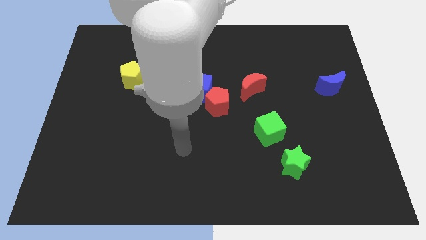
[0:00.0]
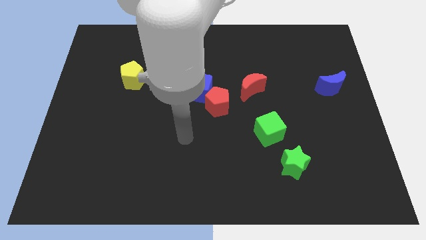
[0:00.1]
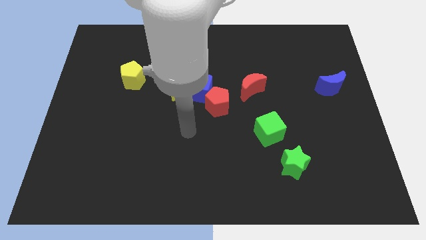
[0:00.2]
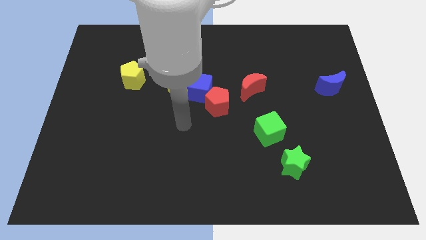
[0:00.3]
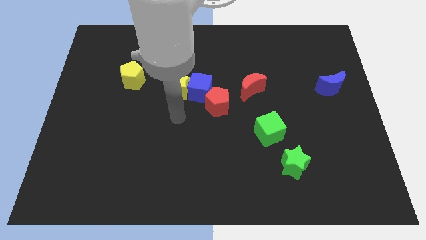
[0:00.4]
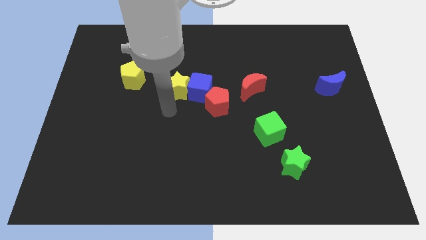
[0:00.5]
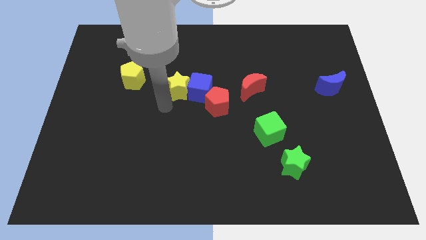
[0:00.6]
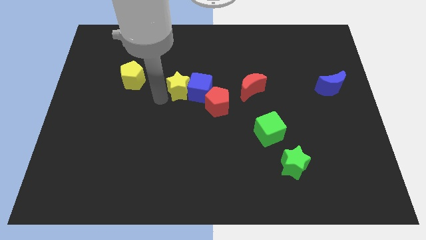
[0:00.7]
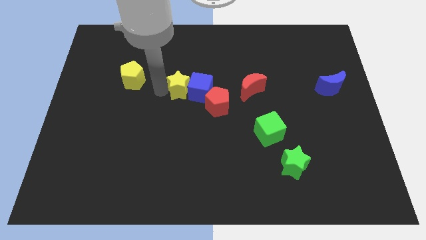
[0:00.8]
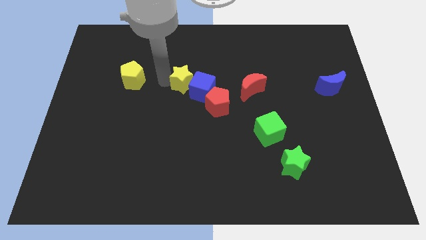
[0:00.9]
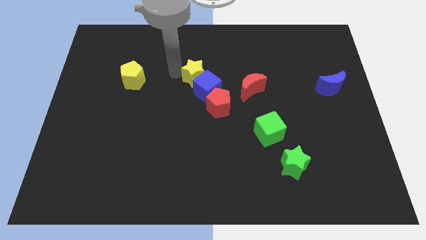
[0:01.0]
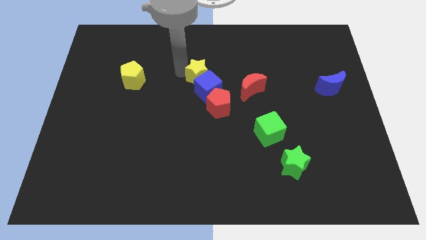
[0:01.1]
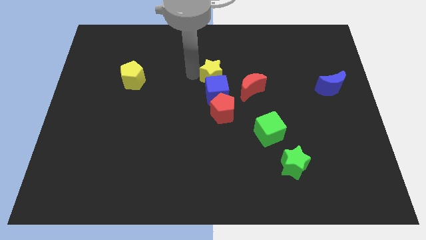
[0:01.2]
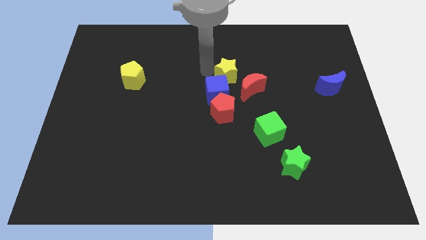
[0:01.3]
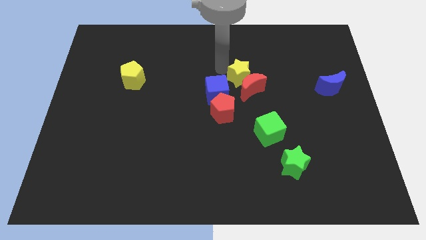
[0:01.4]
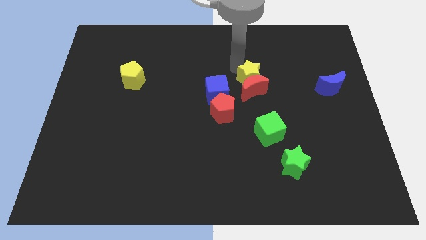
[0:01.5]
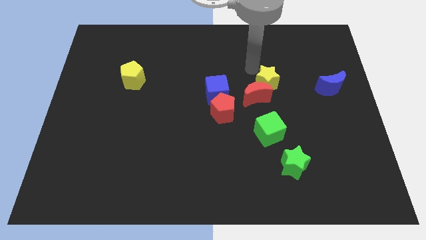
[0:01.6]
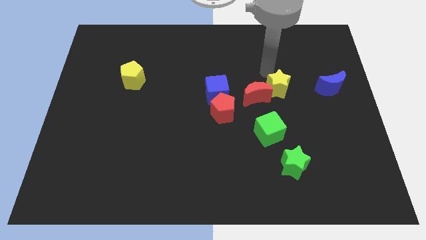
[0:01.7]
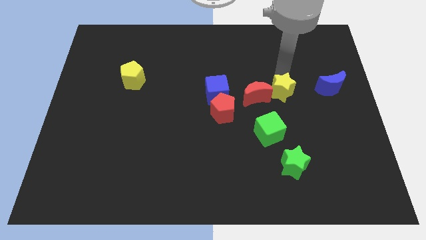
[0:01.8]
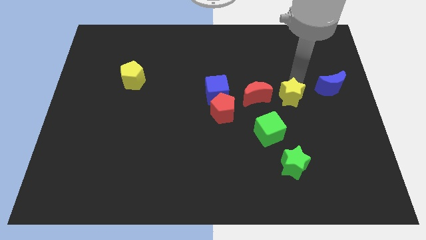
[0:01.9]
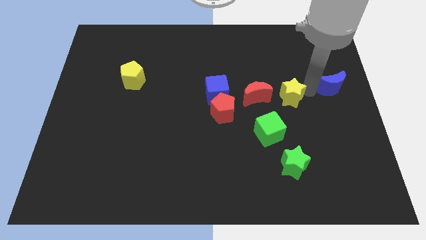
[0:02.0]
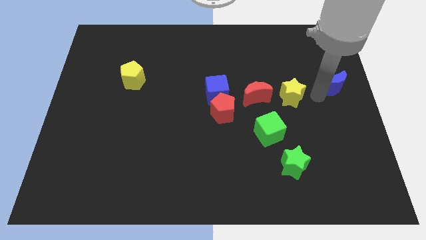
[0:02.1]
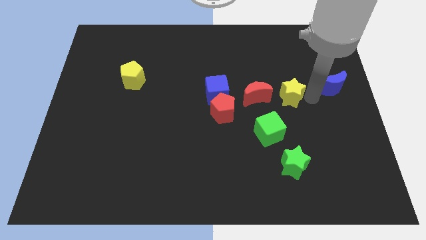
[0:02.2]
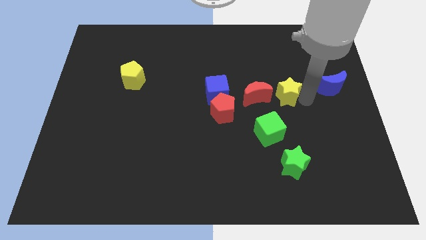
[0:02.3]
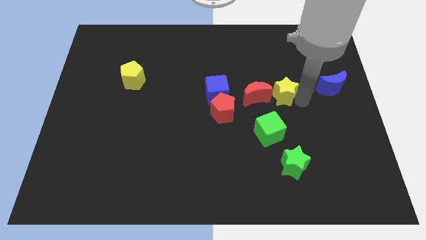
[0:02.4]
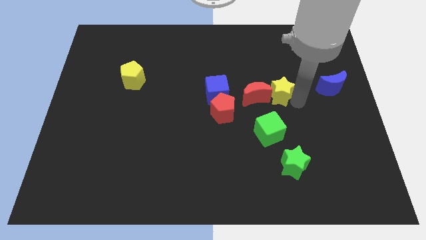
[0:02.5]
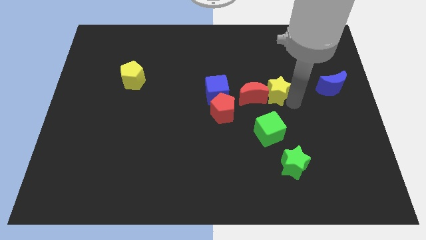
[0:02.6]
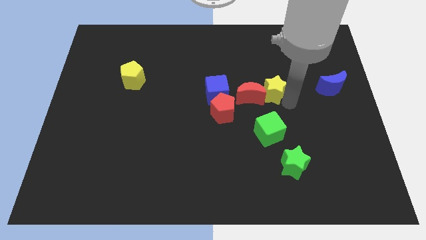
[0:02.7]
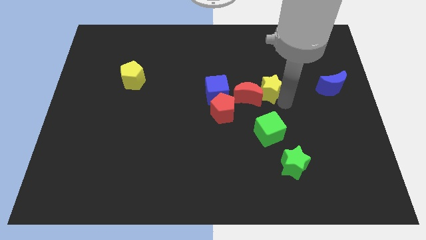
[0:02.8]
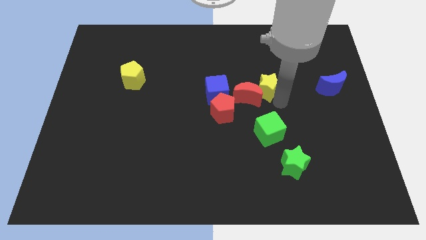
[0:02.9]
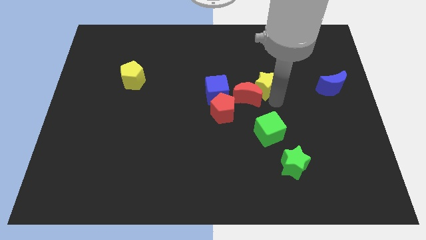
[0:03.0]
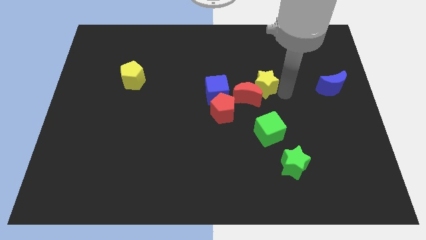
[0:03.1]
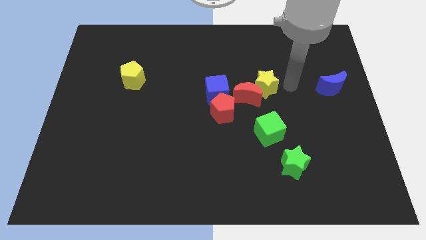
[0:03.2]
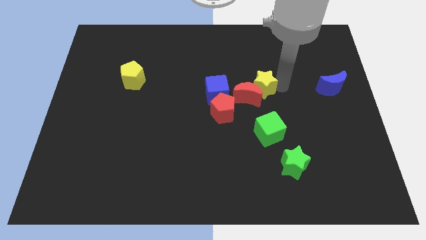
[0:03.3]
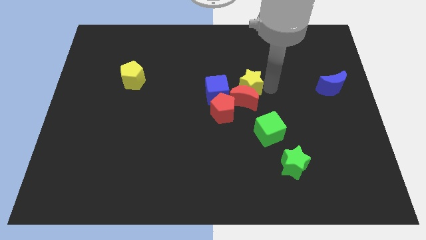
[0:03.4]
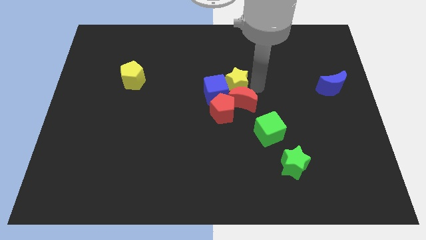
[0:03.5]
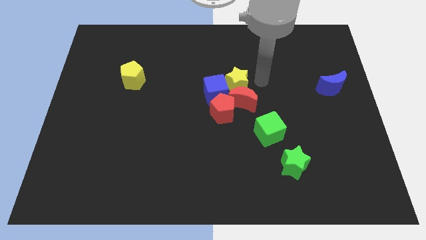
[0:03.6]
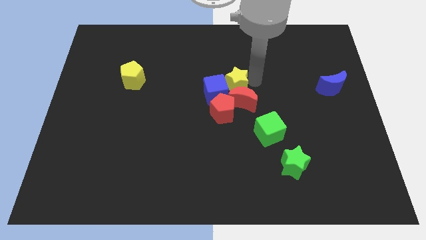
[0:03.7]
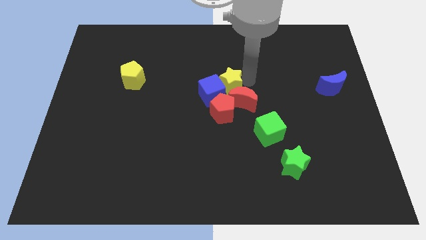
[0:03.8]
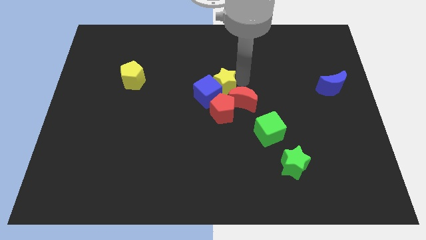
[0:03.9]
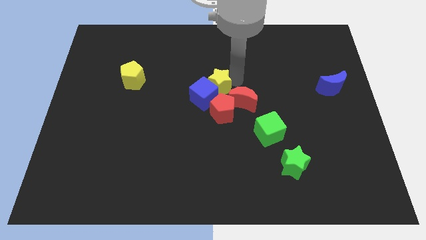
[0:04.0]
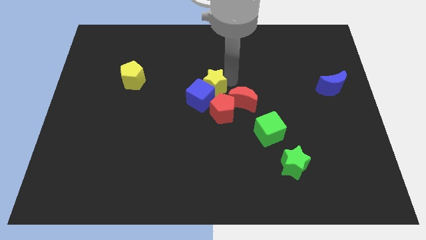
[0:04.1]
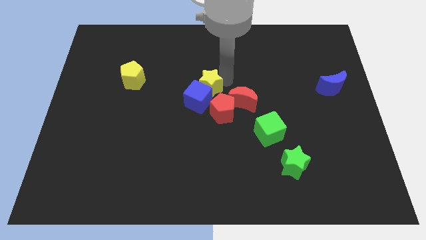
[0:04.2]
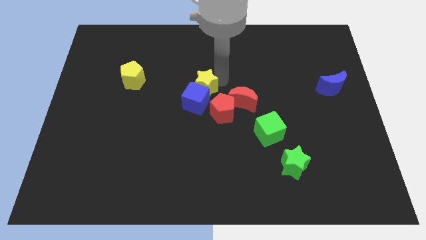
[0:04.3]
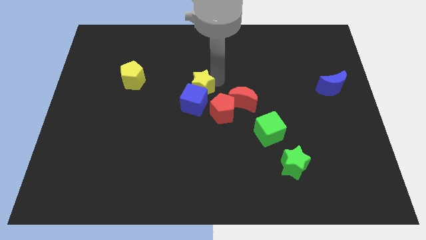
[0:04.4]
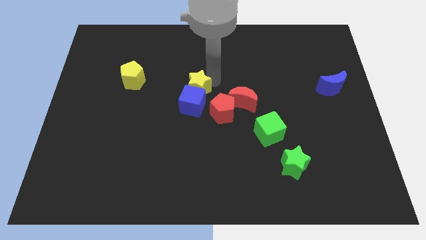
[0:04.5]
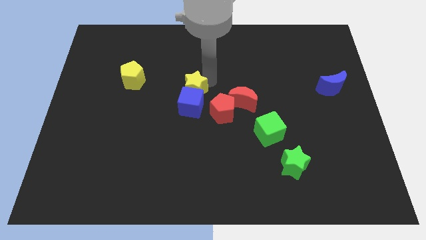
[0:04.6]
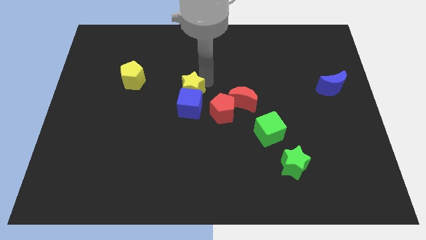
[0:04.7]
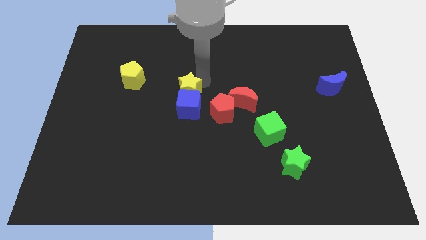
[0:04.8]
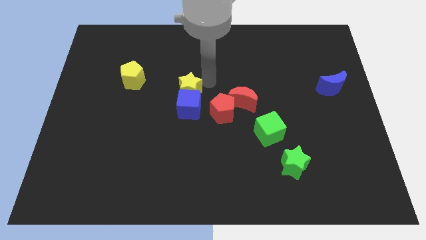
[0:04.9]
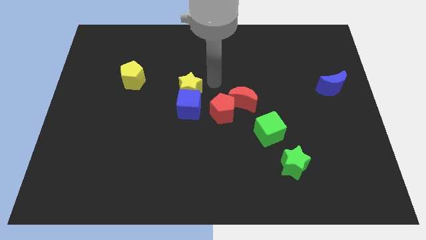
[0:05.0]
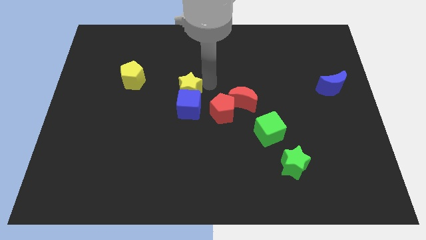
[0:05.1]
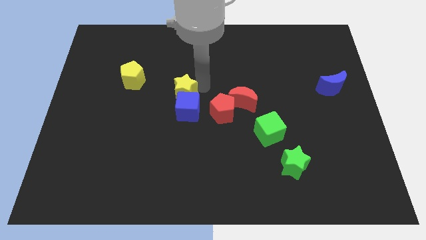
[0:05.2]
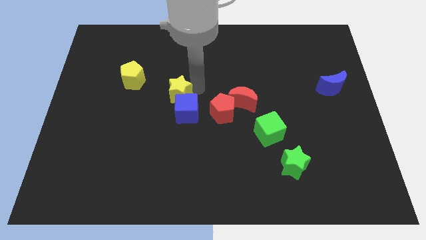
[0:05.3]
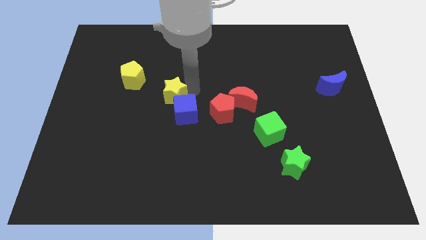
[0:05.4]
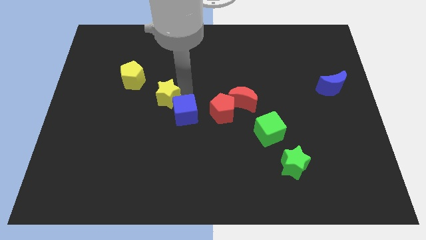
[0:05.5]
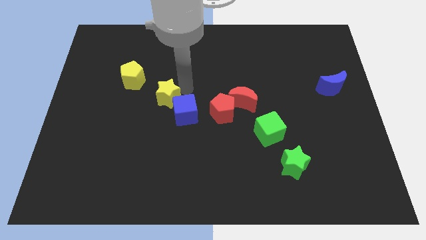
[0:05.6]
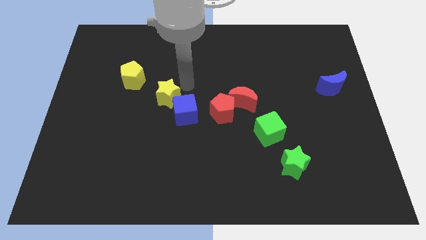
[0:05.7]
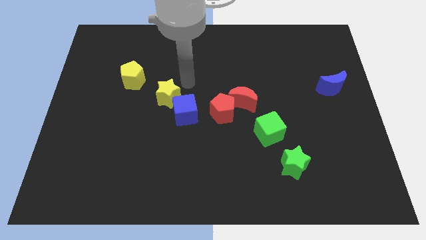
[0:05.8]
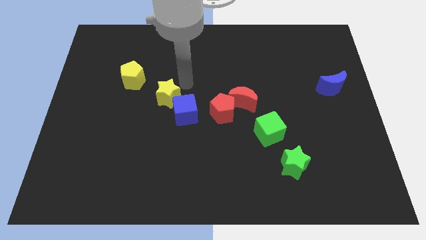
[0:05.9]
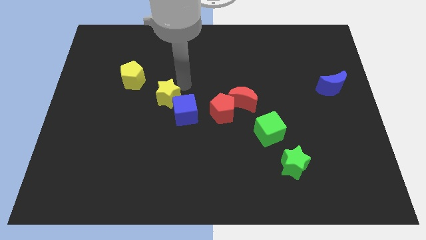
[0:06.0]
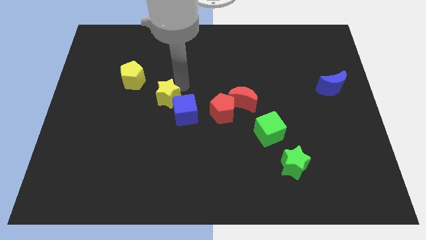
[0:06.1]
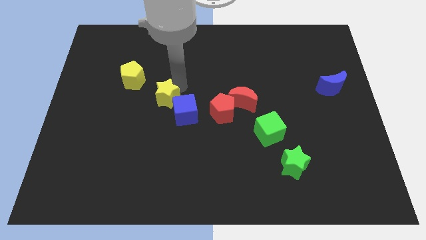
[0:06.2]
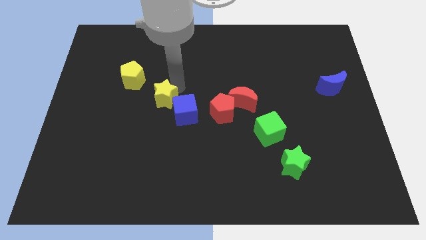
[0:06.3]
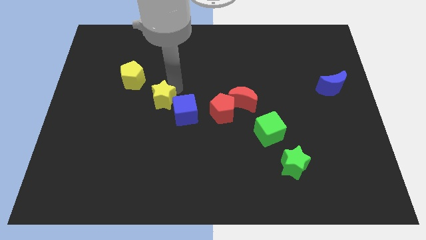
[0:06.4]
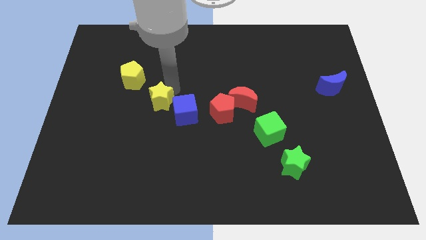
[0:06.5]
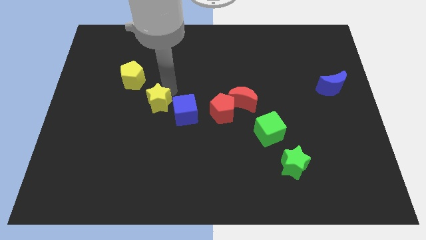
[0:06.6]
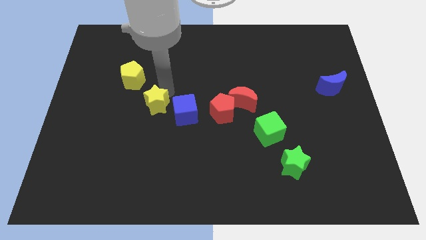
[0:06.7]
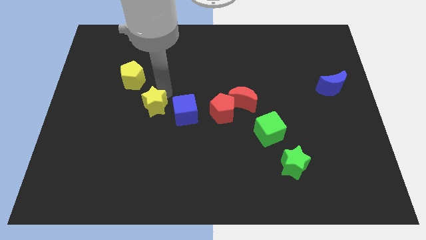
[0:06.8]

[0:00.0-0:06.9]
push the yellow star slightly diagonally downwards and to the left

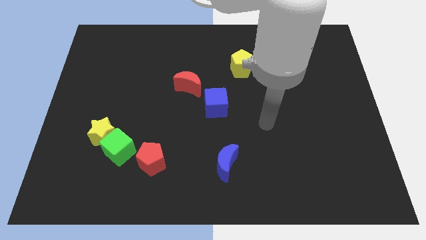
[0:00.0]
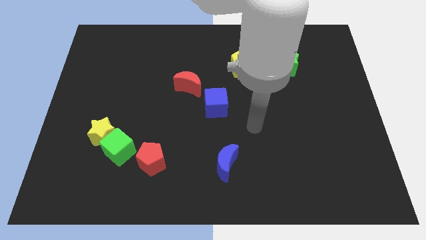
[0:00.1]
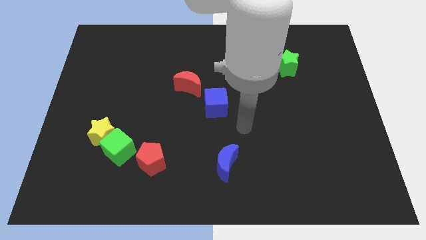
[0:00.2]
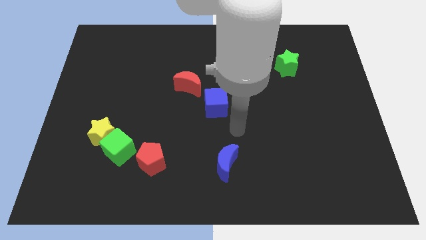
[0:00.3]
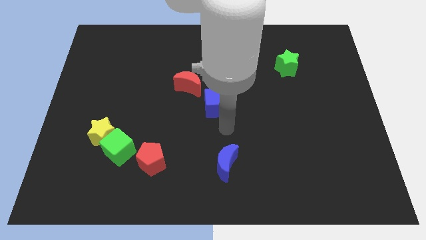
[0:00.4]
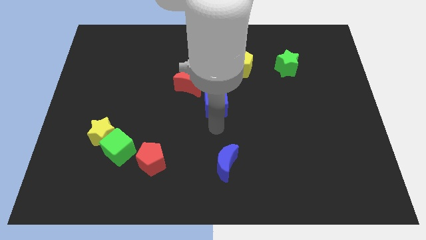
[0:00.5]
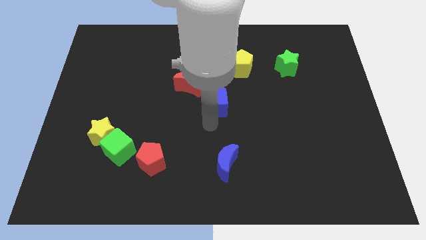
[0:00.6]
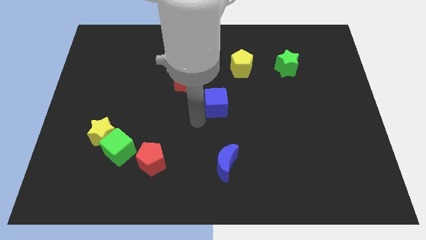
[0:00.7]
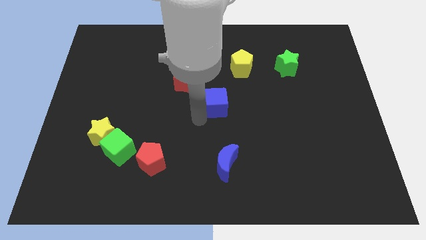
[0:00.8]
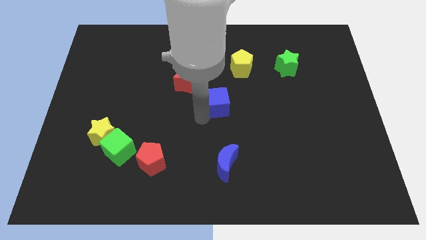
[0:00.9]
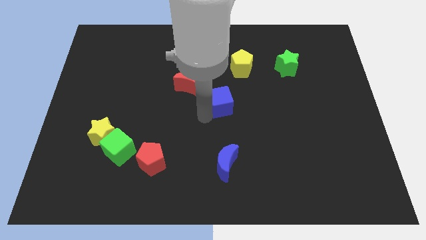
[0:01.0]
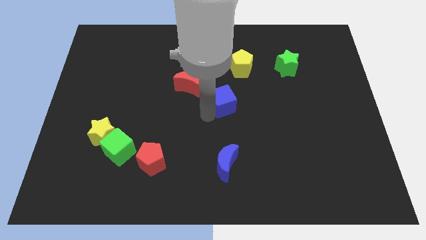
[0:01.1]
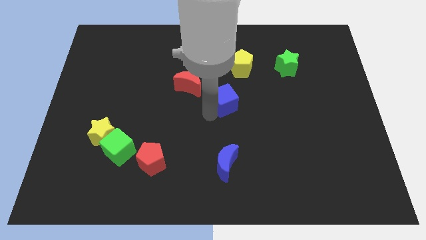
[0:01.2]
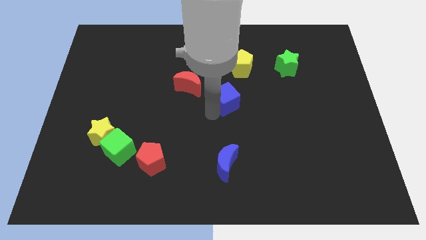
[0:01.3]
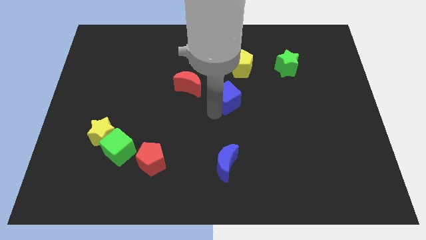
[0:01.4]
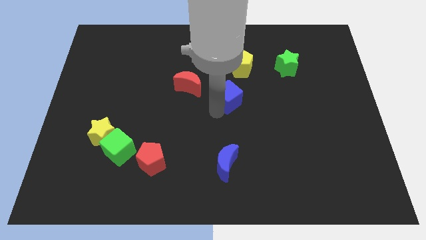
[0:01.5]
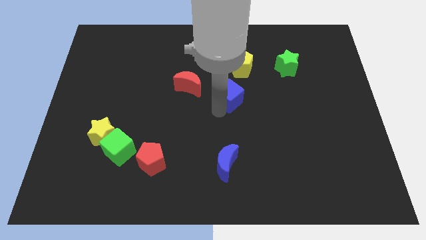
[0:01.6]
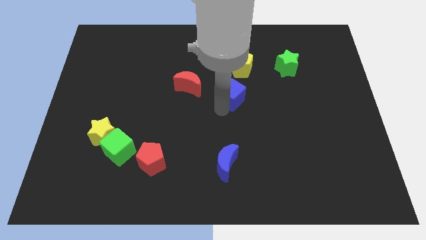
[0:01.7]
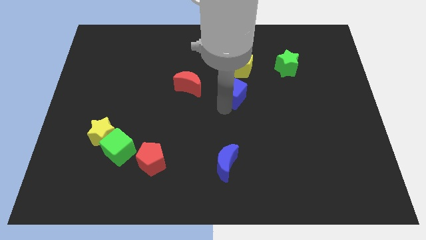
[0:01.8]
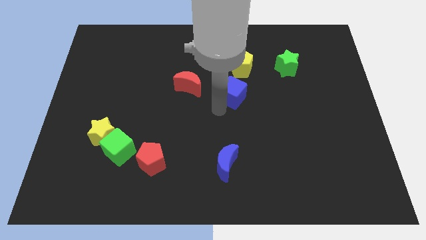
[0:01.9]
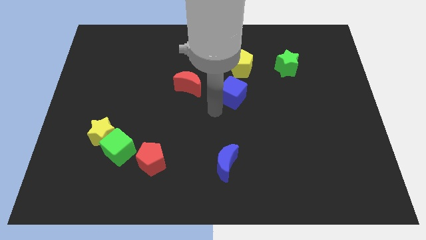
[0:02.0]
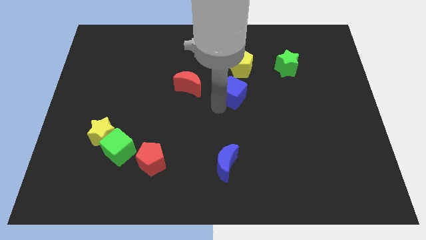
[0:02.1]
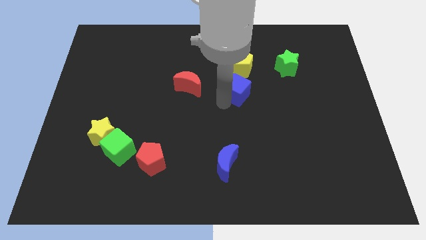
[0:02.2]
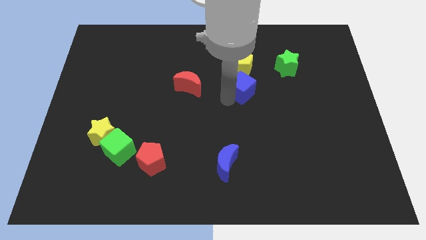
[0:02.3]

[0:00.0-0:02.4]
slightly push the blue cube up and right diagonally
